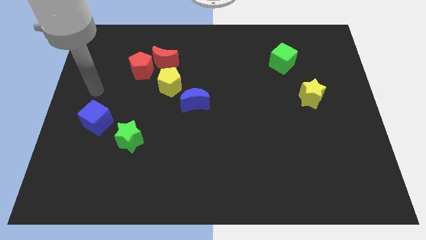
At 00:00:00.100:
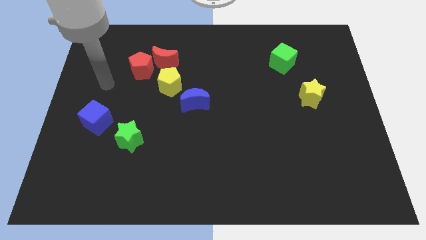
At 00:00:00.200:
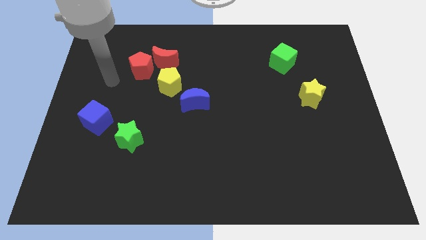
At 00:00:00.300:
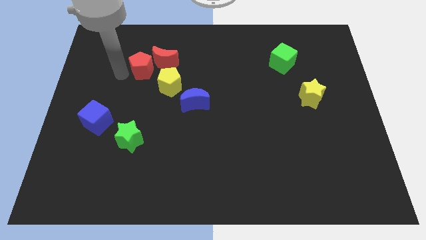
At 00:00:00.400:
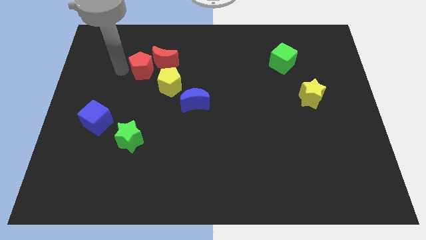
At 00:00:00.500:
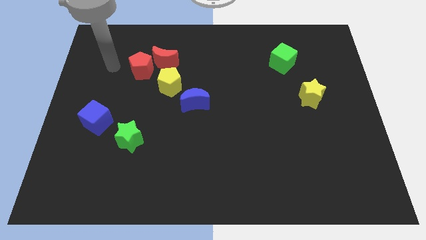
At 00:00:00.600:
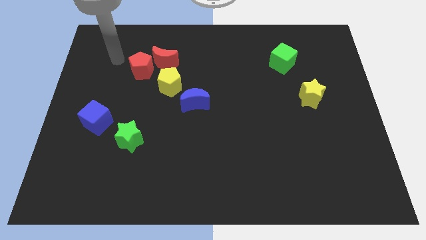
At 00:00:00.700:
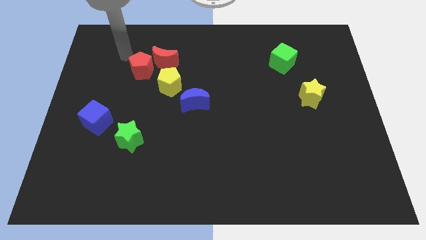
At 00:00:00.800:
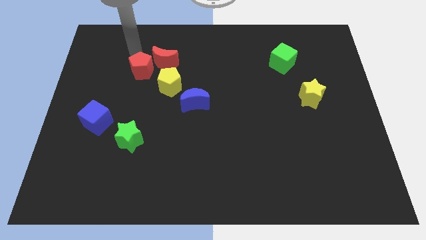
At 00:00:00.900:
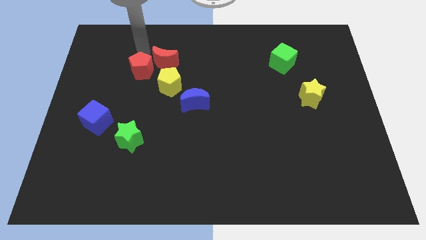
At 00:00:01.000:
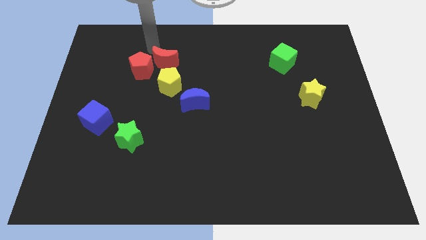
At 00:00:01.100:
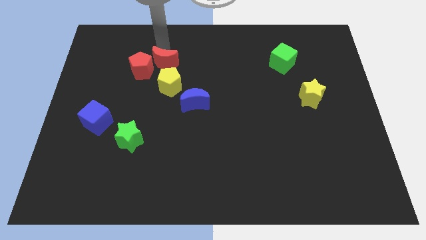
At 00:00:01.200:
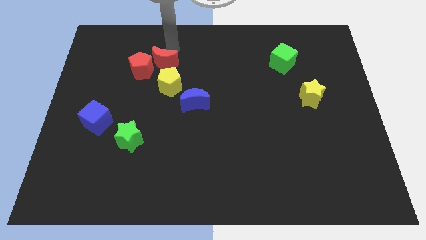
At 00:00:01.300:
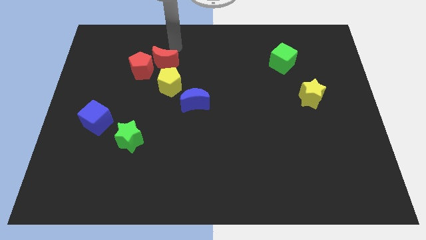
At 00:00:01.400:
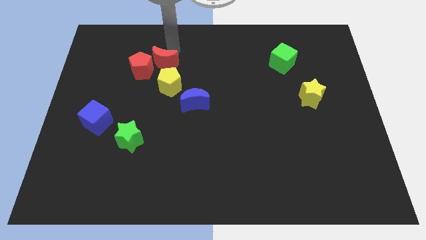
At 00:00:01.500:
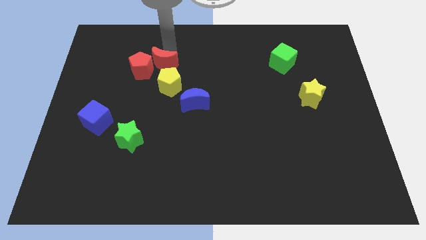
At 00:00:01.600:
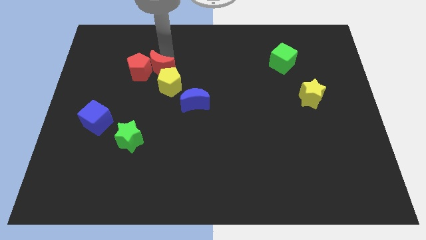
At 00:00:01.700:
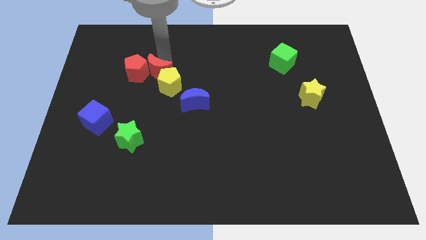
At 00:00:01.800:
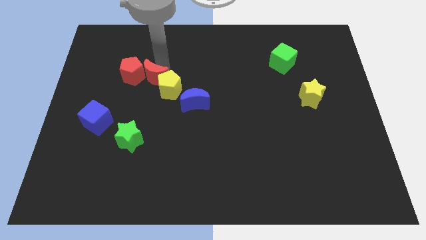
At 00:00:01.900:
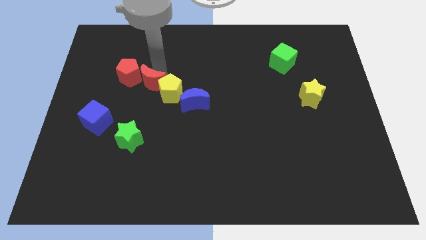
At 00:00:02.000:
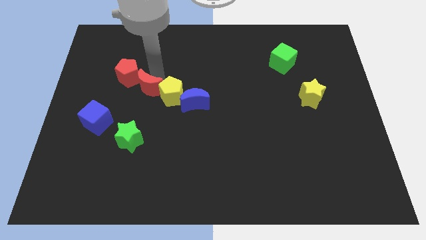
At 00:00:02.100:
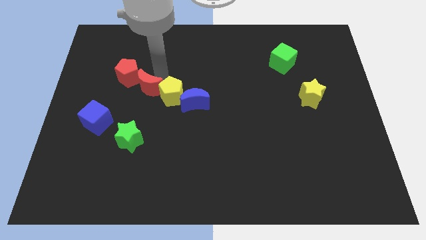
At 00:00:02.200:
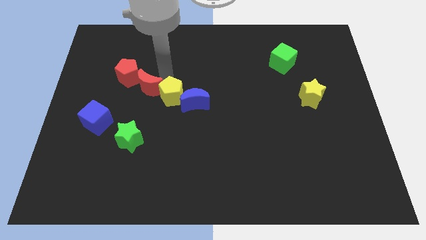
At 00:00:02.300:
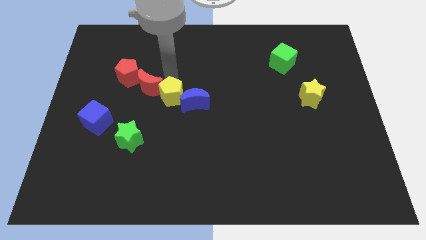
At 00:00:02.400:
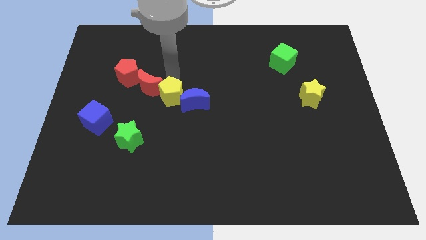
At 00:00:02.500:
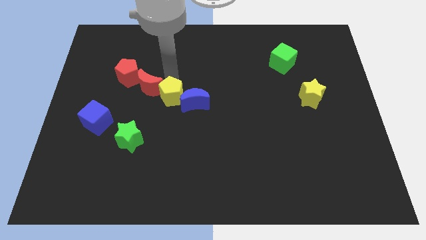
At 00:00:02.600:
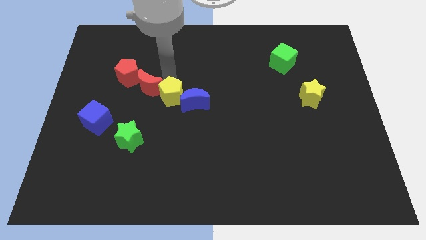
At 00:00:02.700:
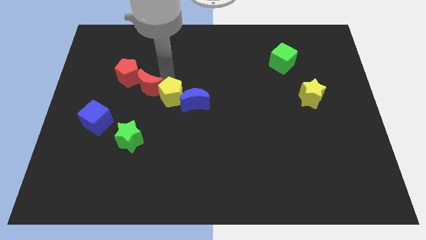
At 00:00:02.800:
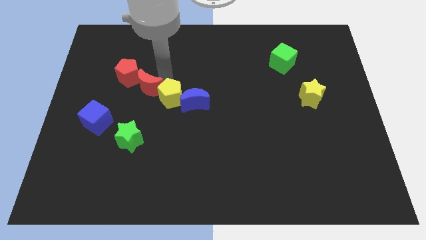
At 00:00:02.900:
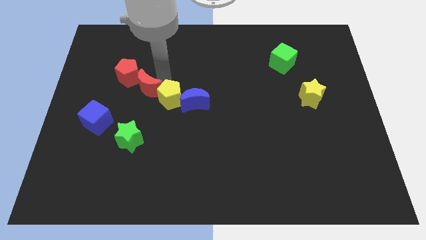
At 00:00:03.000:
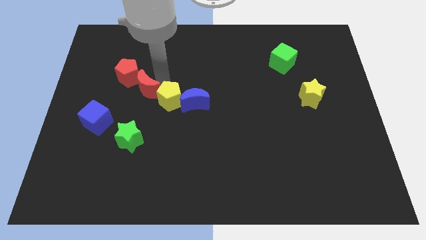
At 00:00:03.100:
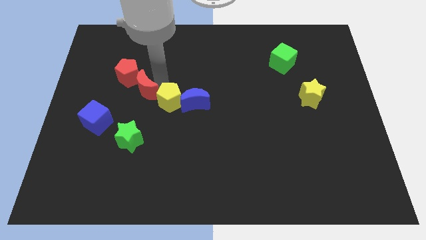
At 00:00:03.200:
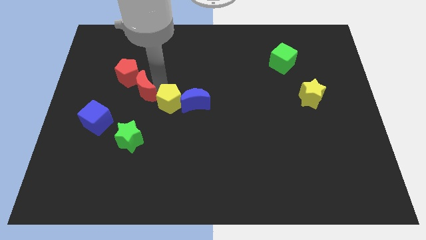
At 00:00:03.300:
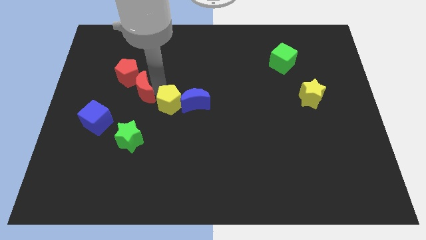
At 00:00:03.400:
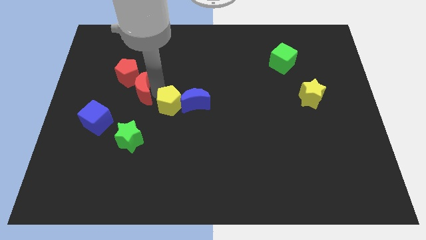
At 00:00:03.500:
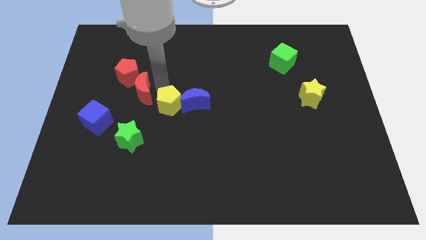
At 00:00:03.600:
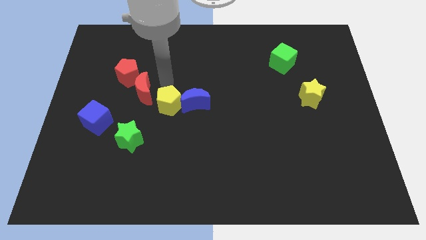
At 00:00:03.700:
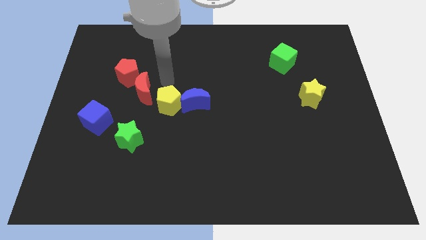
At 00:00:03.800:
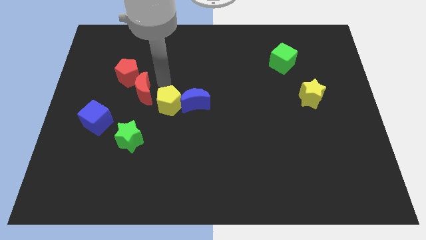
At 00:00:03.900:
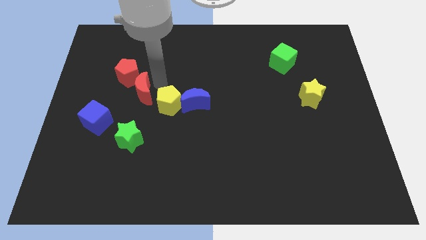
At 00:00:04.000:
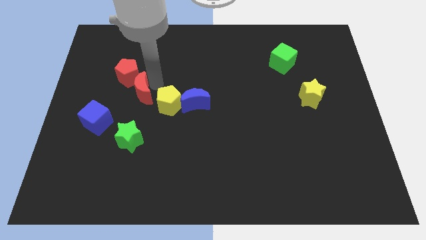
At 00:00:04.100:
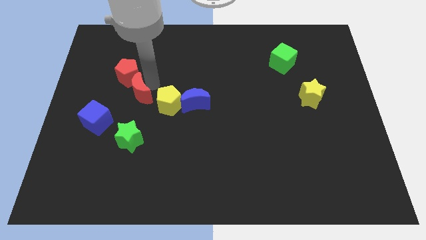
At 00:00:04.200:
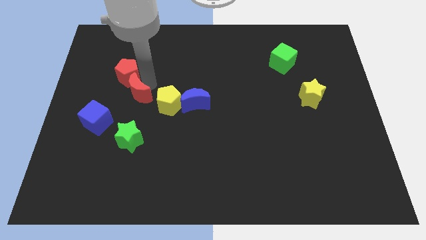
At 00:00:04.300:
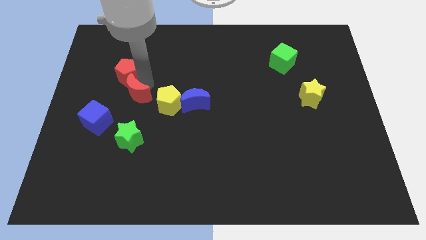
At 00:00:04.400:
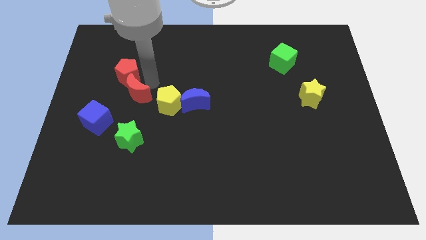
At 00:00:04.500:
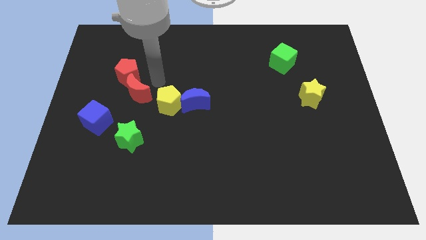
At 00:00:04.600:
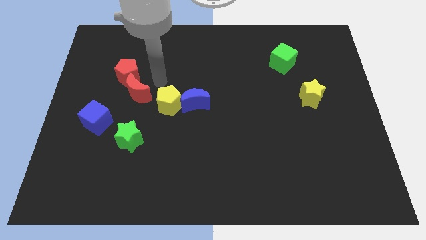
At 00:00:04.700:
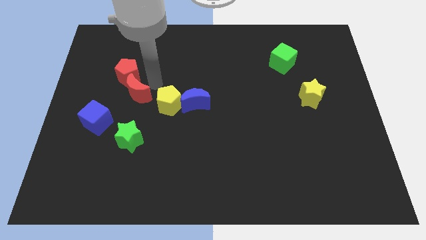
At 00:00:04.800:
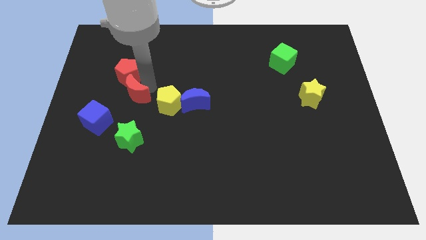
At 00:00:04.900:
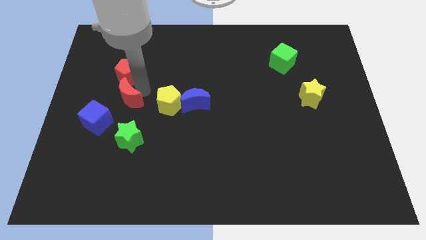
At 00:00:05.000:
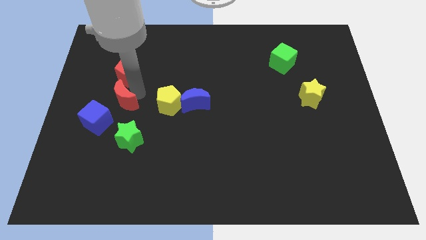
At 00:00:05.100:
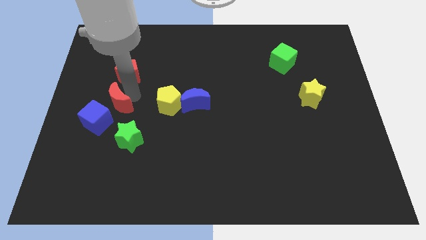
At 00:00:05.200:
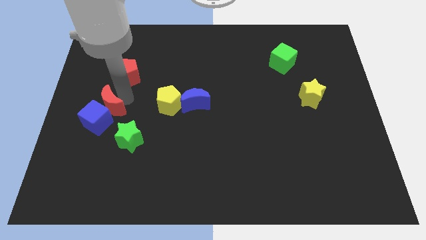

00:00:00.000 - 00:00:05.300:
put the red moon towards the blue cube

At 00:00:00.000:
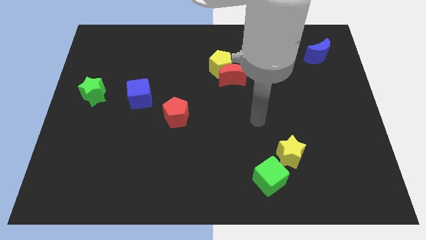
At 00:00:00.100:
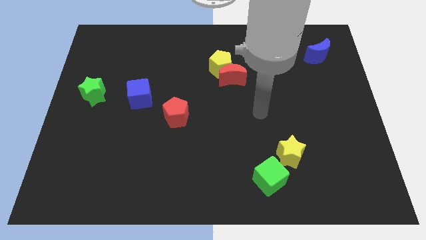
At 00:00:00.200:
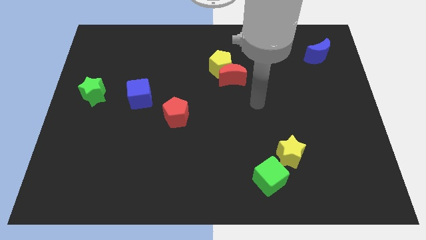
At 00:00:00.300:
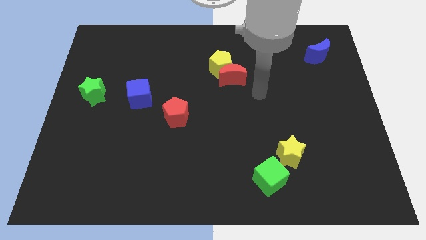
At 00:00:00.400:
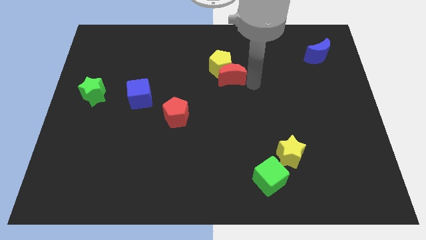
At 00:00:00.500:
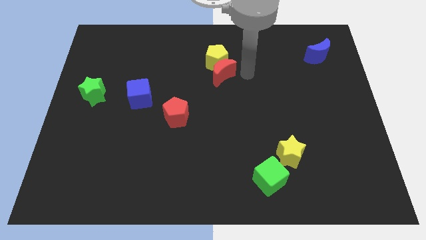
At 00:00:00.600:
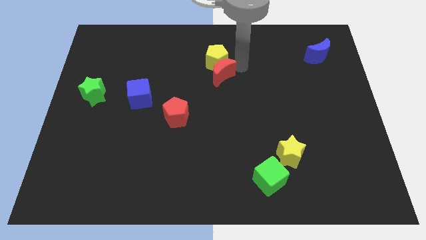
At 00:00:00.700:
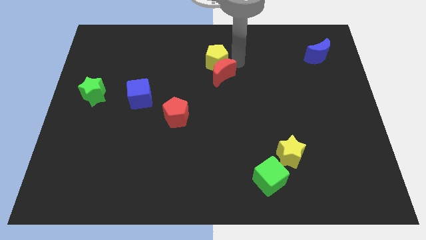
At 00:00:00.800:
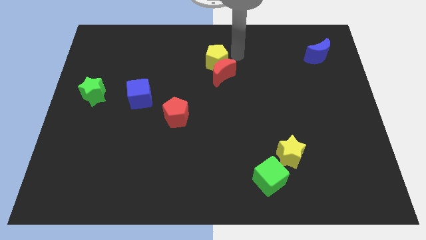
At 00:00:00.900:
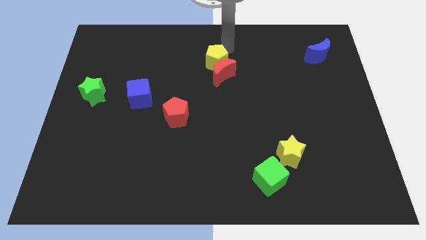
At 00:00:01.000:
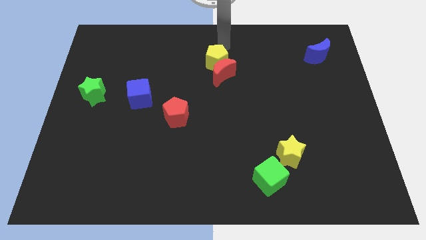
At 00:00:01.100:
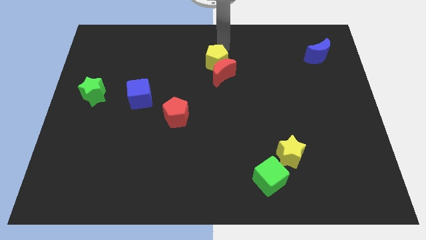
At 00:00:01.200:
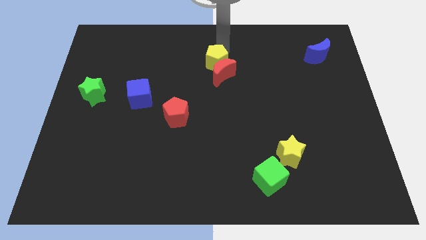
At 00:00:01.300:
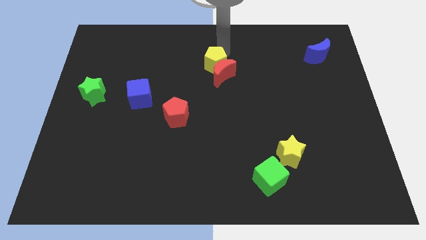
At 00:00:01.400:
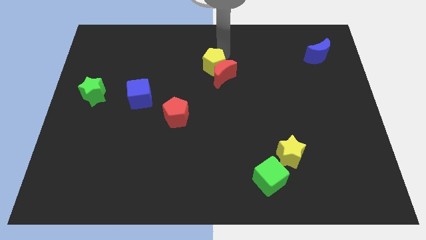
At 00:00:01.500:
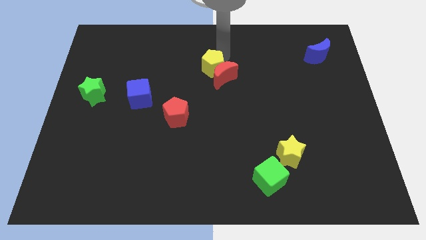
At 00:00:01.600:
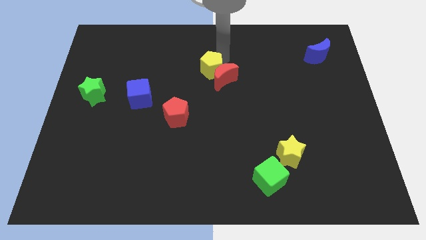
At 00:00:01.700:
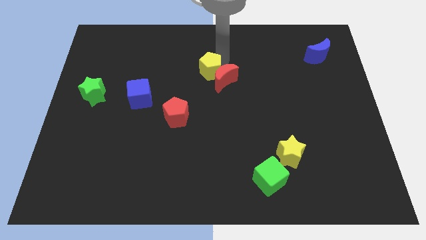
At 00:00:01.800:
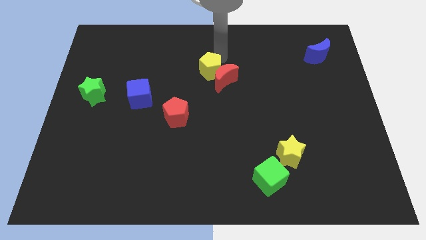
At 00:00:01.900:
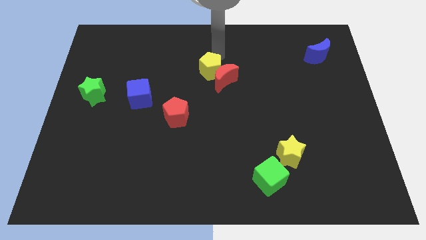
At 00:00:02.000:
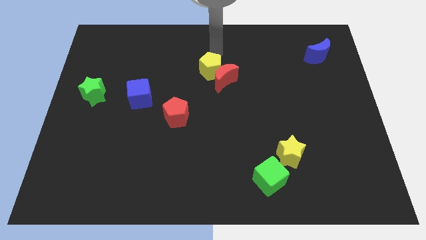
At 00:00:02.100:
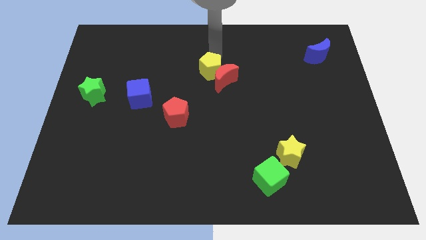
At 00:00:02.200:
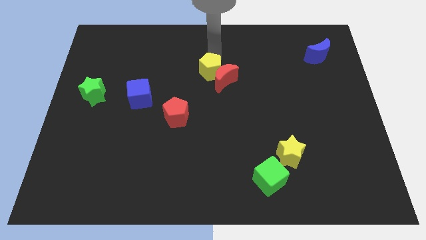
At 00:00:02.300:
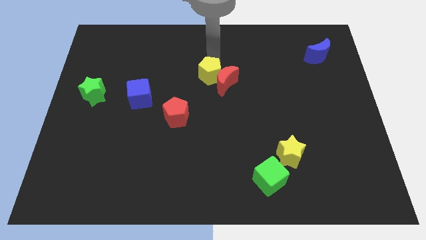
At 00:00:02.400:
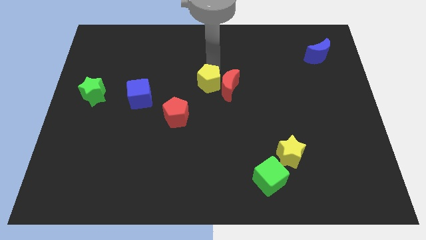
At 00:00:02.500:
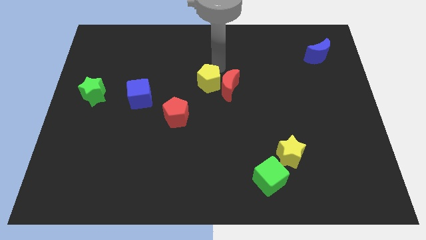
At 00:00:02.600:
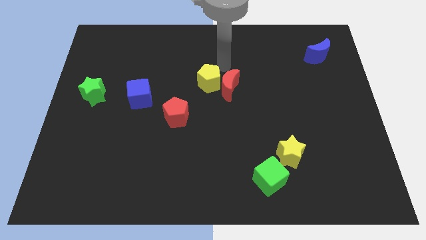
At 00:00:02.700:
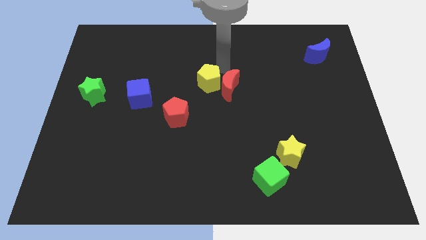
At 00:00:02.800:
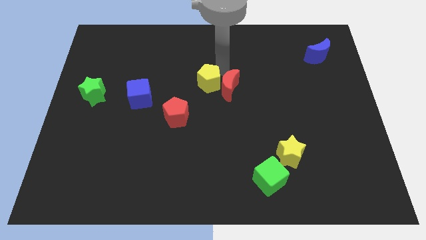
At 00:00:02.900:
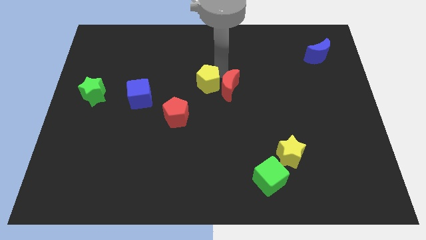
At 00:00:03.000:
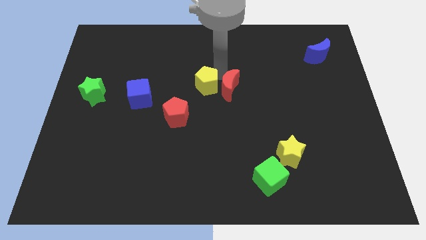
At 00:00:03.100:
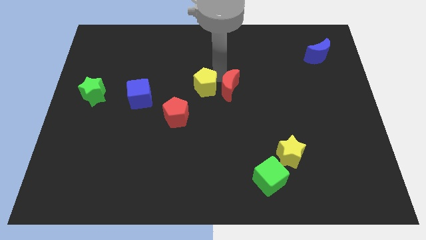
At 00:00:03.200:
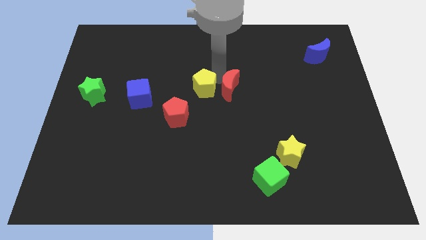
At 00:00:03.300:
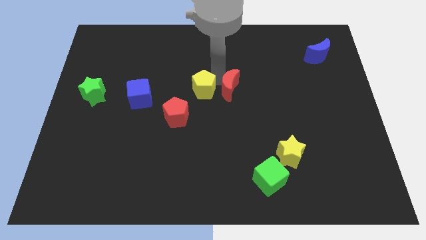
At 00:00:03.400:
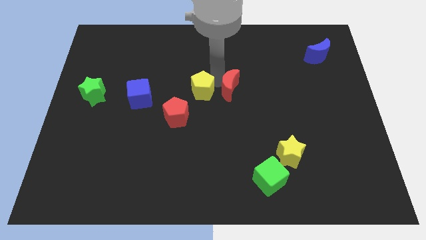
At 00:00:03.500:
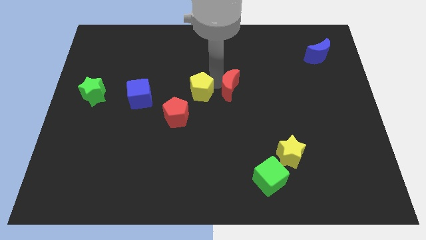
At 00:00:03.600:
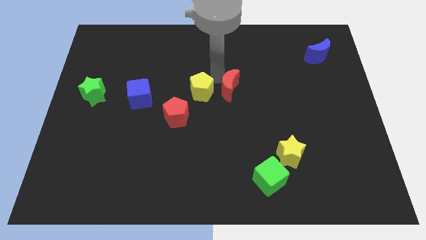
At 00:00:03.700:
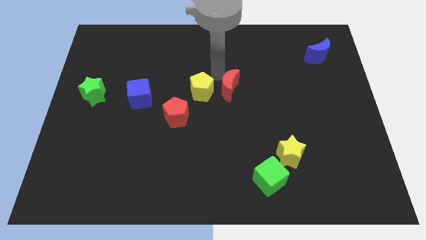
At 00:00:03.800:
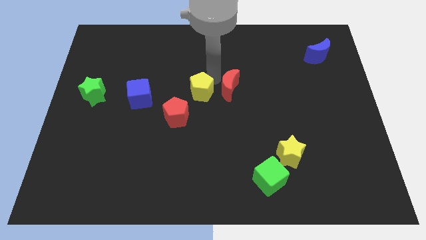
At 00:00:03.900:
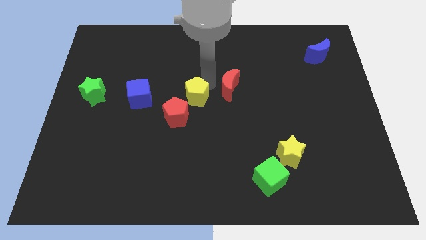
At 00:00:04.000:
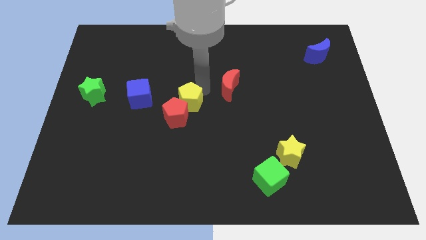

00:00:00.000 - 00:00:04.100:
put the yellow pentagon close to the red pentagon
